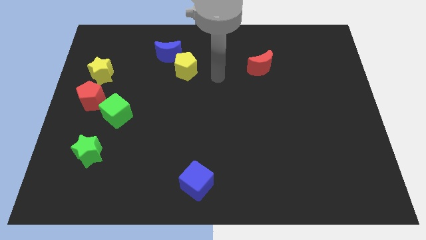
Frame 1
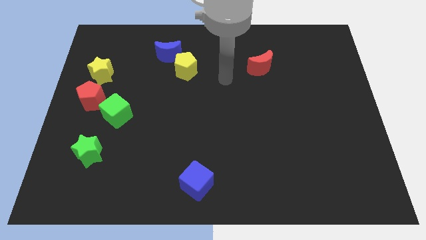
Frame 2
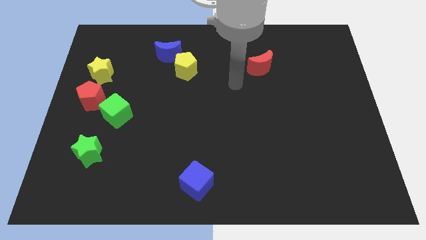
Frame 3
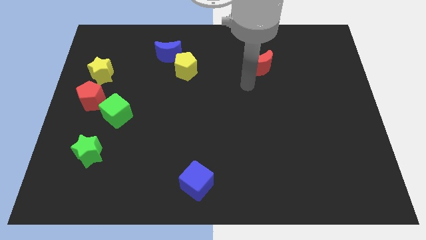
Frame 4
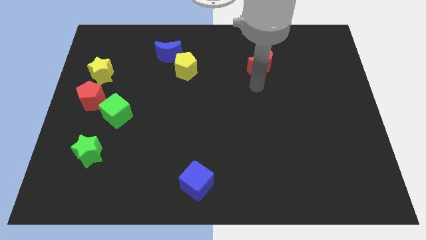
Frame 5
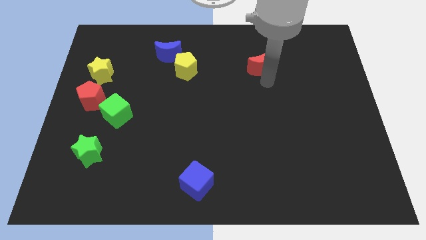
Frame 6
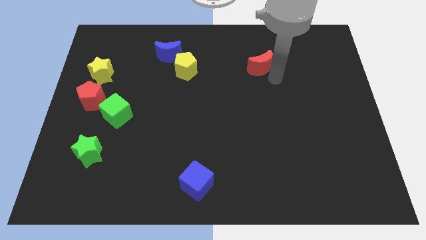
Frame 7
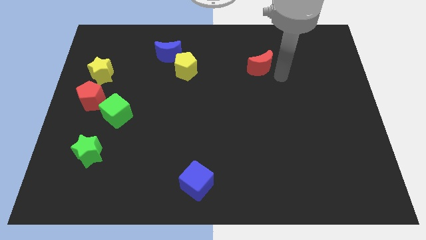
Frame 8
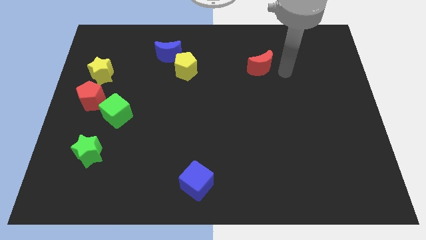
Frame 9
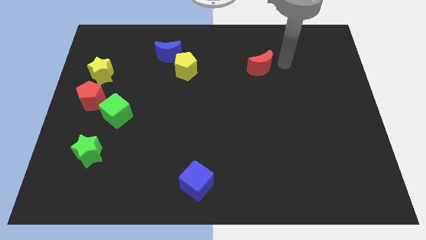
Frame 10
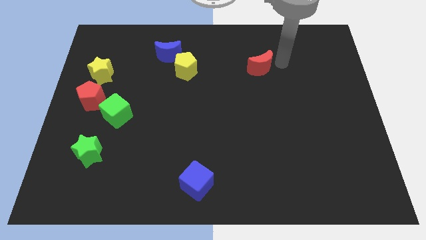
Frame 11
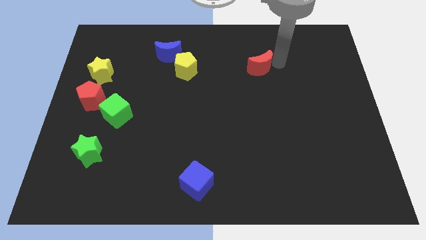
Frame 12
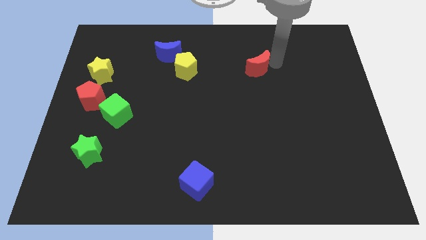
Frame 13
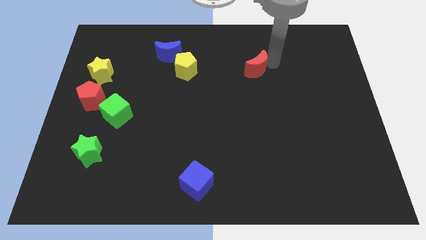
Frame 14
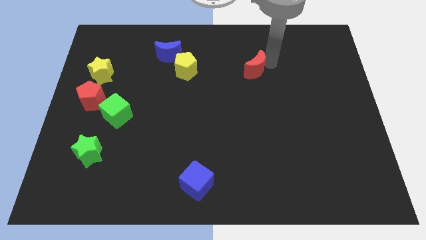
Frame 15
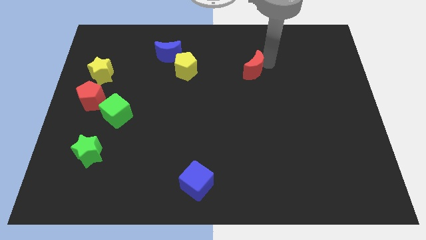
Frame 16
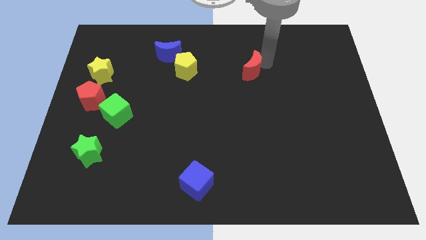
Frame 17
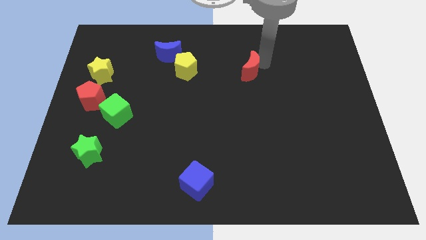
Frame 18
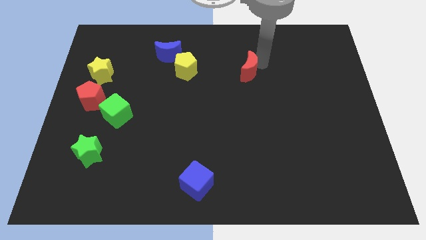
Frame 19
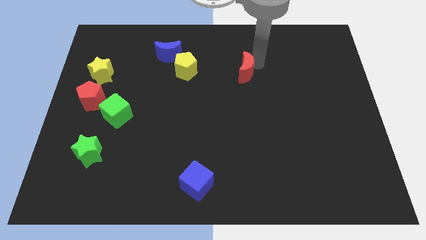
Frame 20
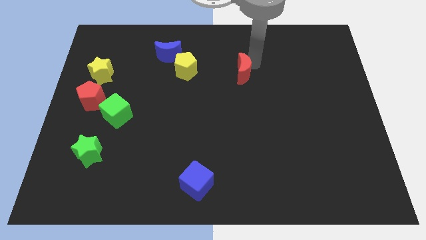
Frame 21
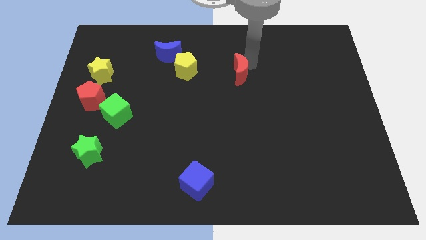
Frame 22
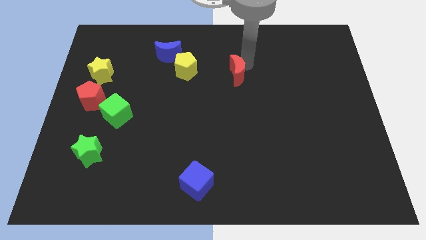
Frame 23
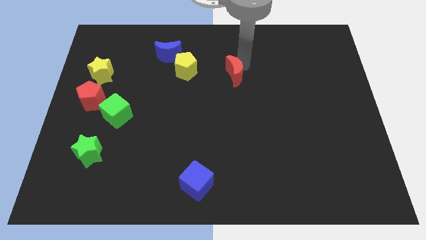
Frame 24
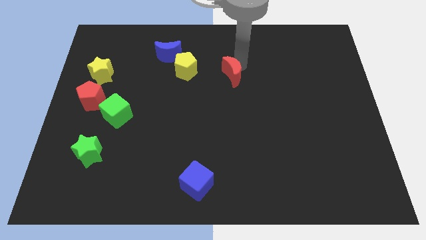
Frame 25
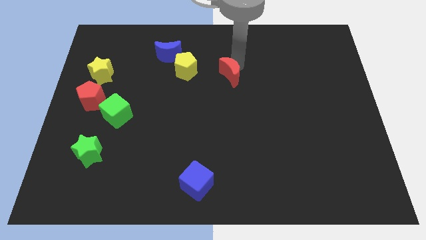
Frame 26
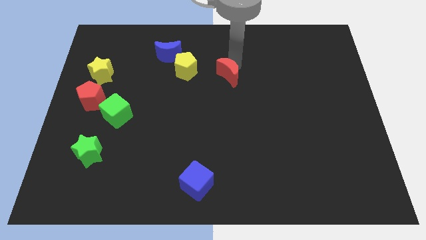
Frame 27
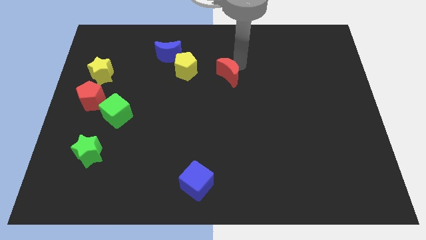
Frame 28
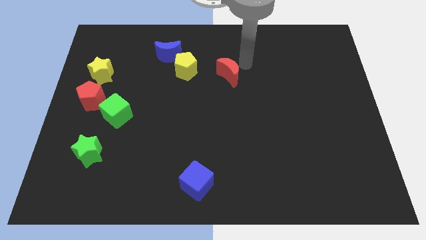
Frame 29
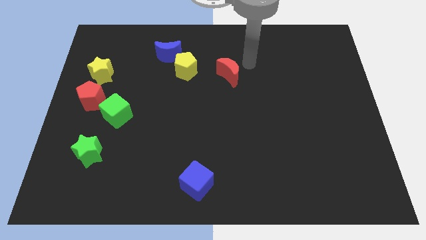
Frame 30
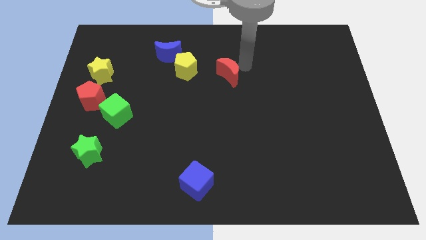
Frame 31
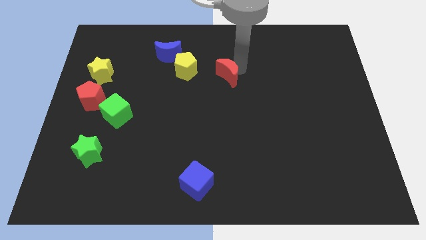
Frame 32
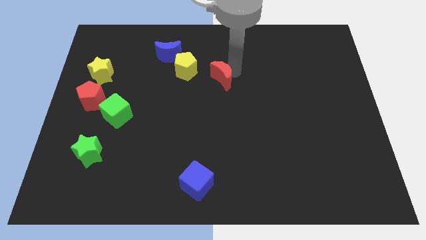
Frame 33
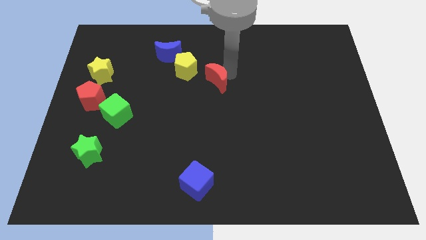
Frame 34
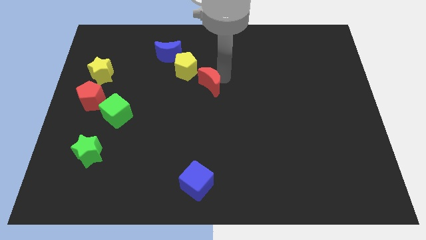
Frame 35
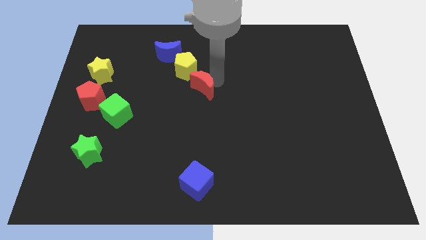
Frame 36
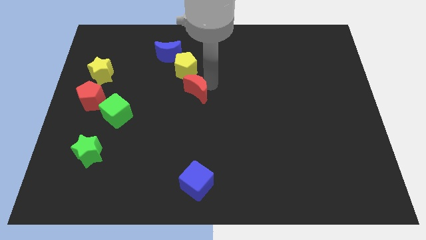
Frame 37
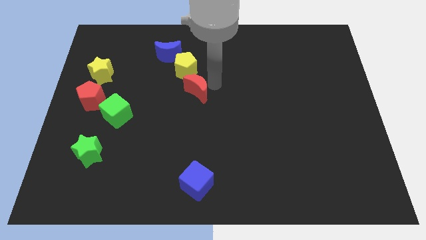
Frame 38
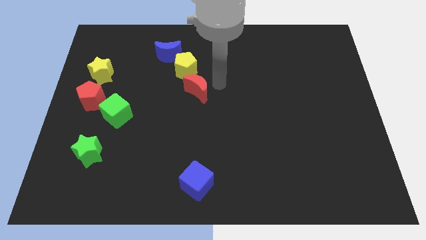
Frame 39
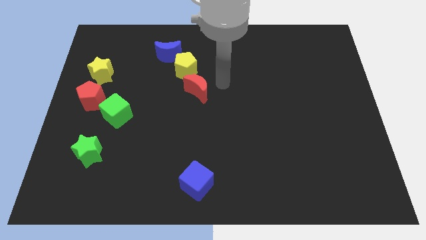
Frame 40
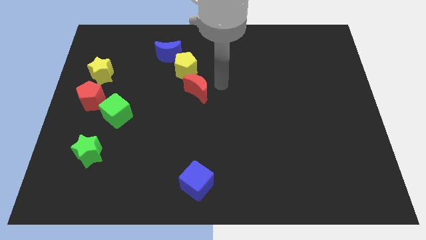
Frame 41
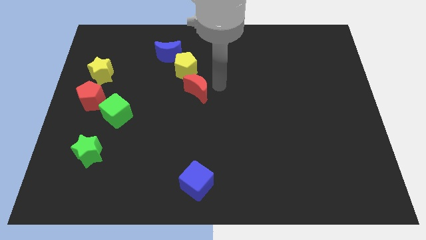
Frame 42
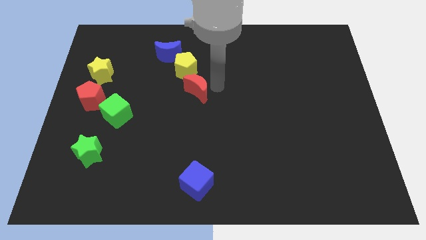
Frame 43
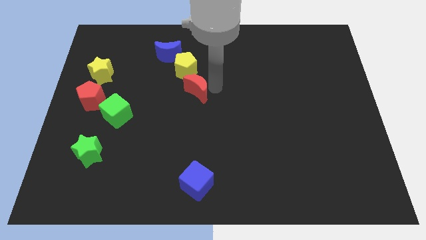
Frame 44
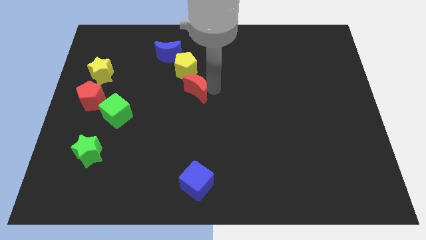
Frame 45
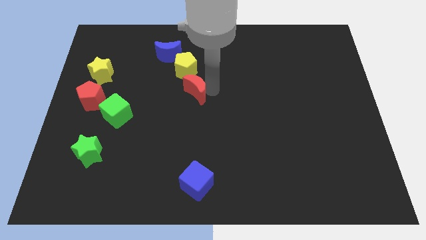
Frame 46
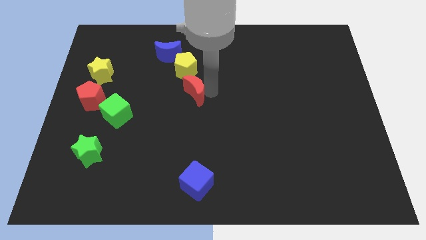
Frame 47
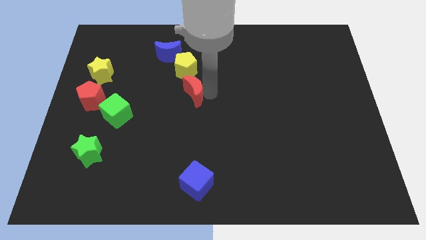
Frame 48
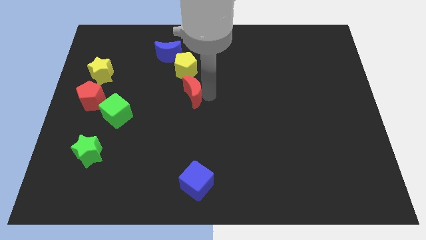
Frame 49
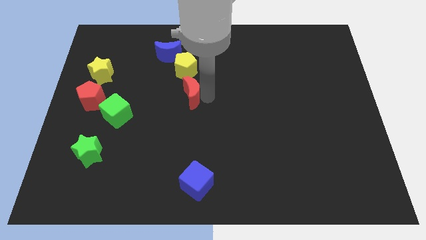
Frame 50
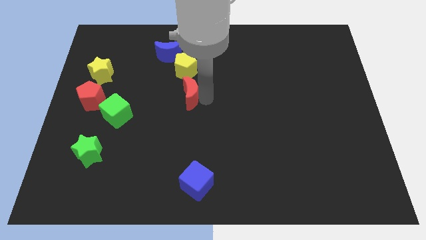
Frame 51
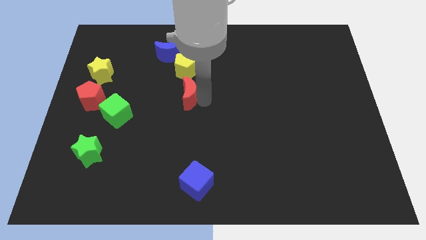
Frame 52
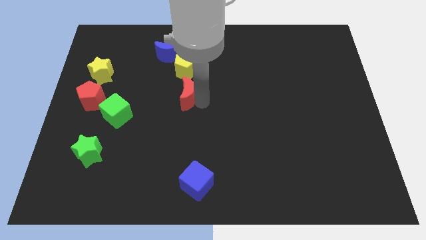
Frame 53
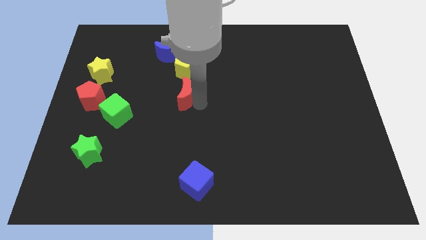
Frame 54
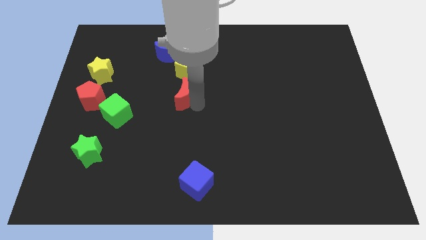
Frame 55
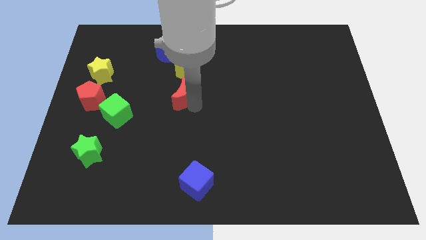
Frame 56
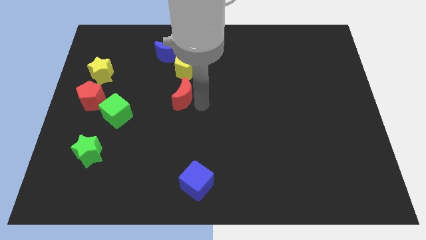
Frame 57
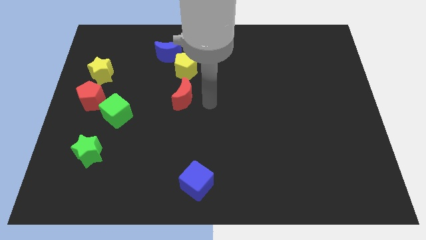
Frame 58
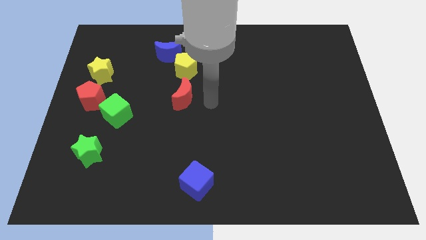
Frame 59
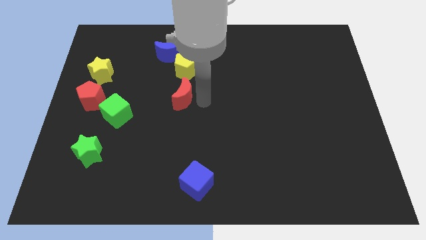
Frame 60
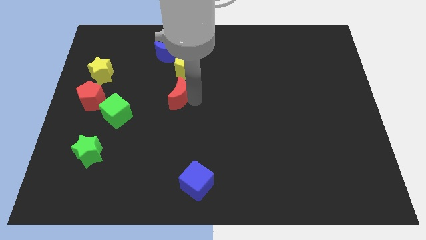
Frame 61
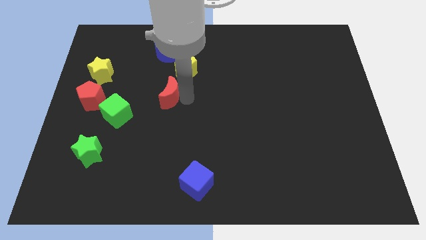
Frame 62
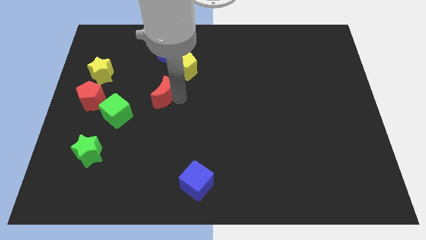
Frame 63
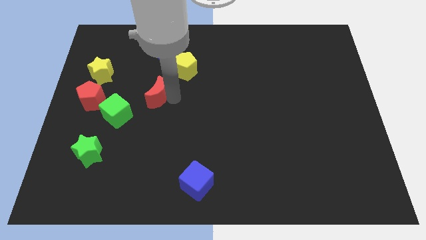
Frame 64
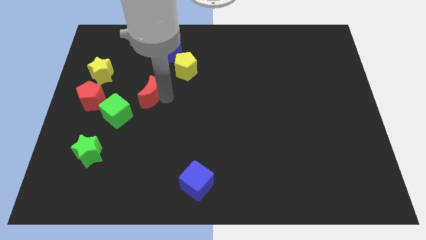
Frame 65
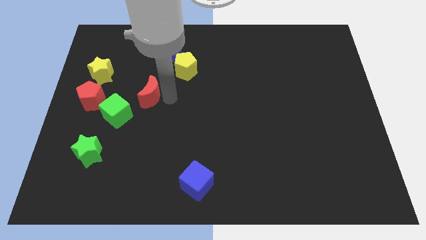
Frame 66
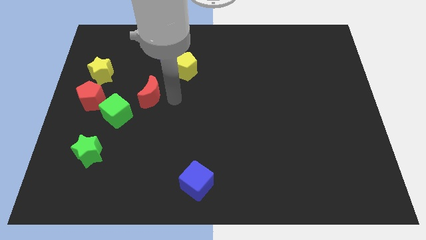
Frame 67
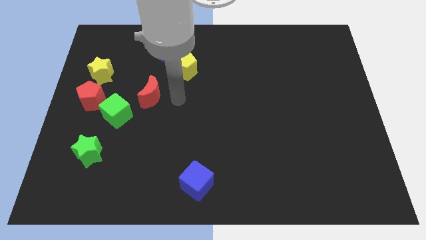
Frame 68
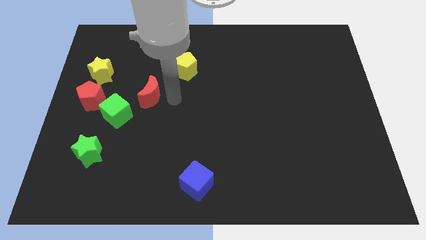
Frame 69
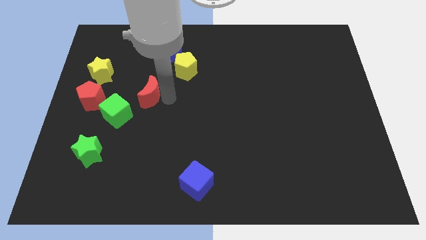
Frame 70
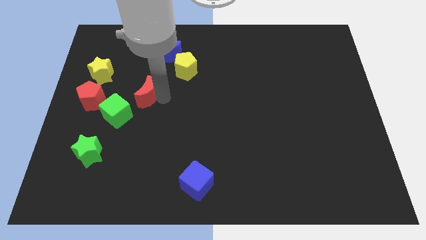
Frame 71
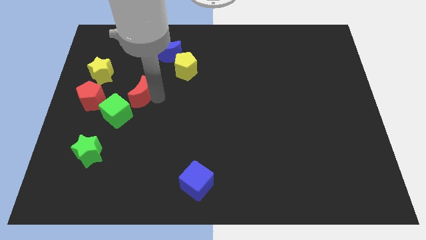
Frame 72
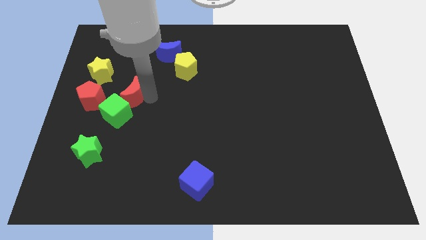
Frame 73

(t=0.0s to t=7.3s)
slide the red moon to the bottom right side of the yellow star
